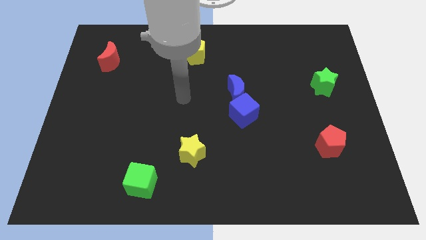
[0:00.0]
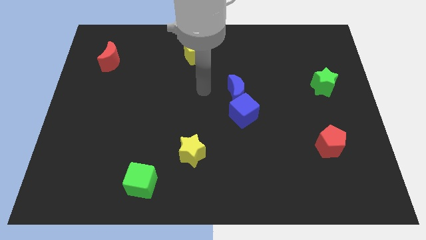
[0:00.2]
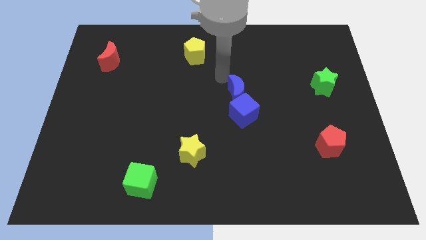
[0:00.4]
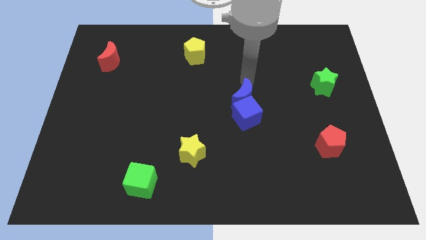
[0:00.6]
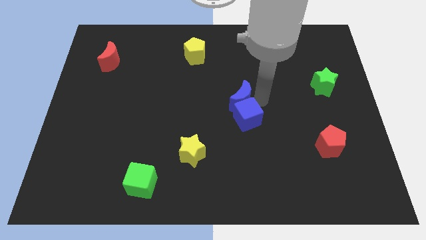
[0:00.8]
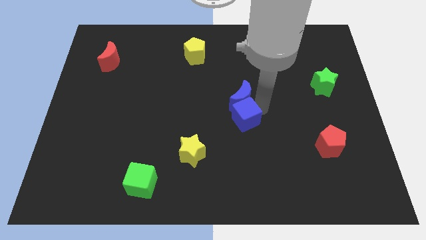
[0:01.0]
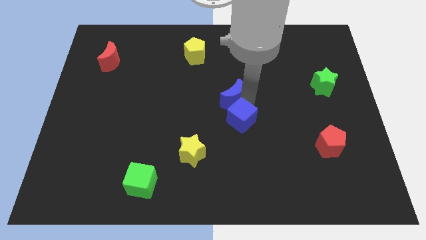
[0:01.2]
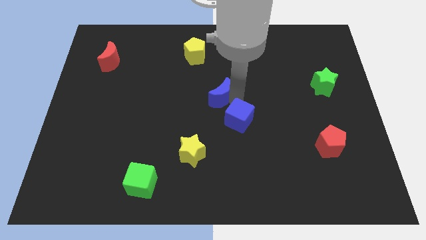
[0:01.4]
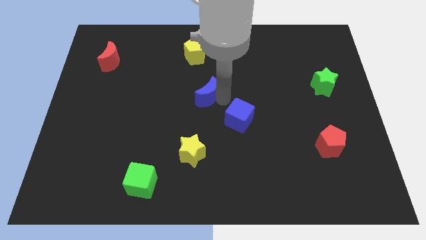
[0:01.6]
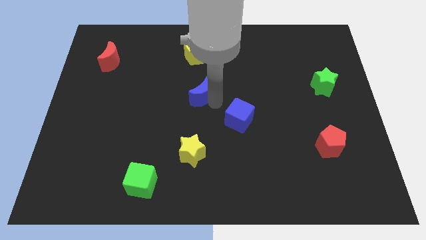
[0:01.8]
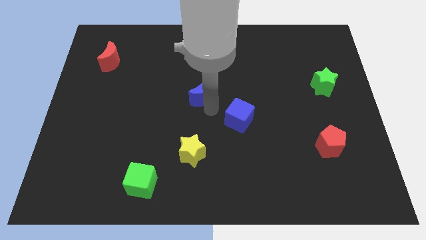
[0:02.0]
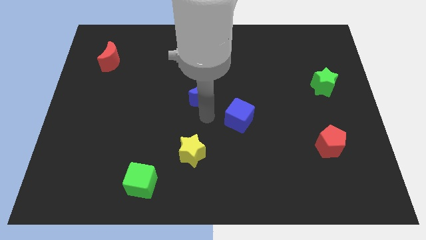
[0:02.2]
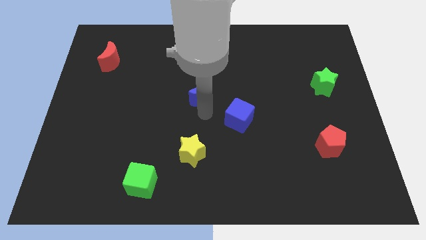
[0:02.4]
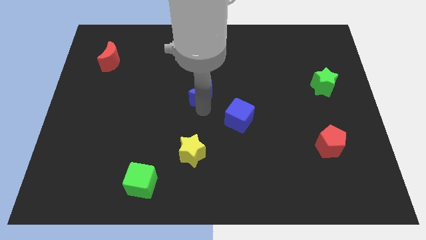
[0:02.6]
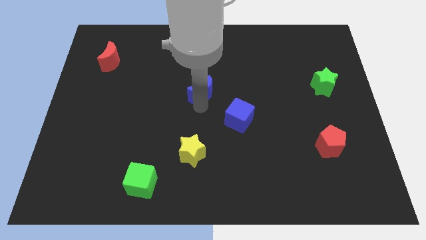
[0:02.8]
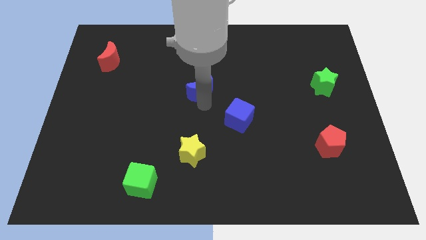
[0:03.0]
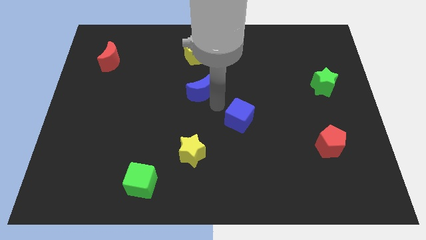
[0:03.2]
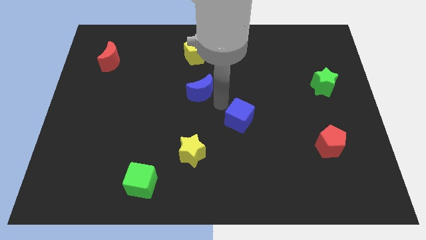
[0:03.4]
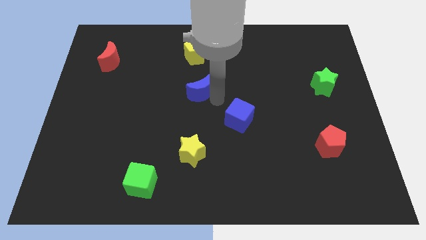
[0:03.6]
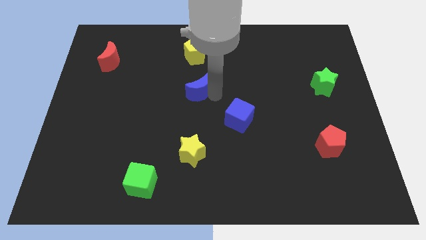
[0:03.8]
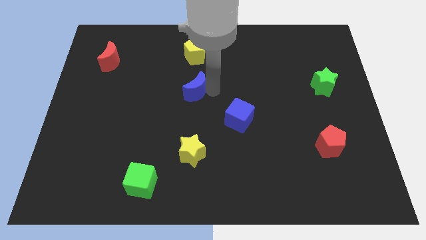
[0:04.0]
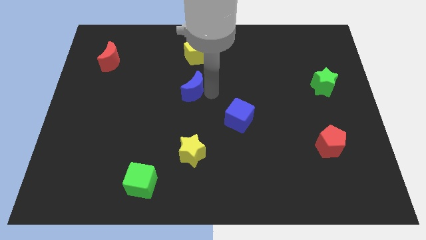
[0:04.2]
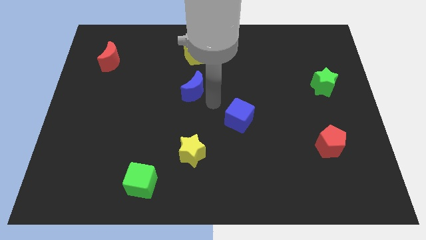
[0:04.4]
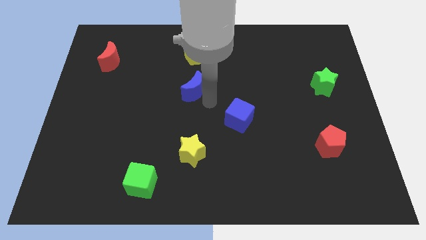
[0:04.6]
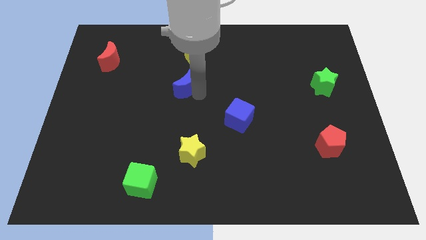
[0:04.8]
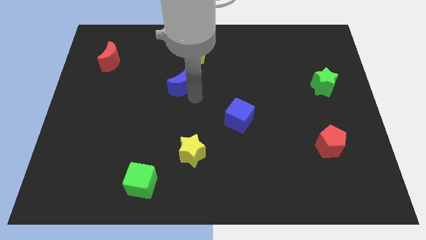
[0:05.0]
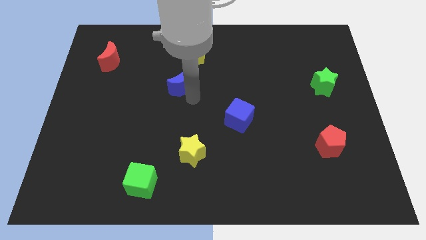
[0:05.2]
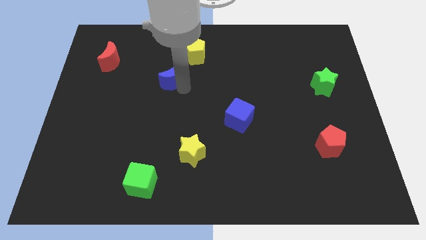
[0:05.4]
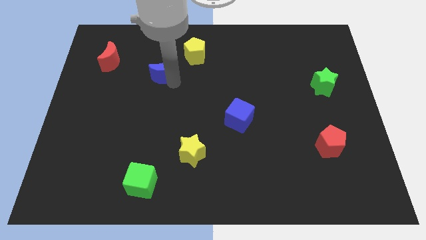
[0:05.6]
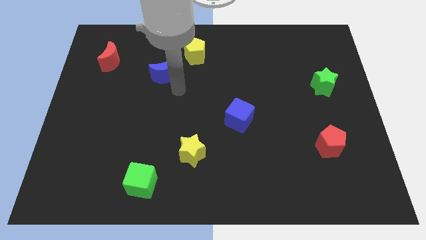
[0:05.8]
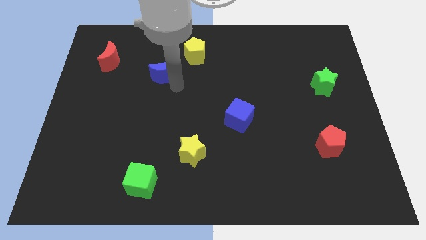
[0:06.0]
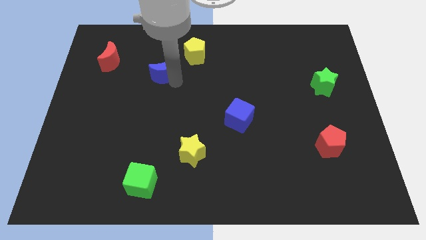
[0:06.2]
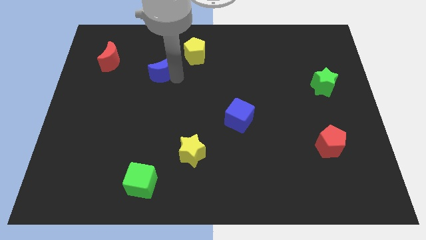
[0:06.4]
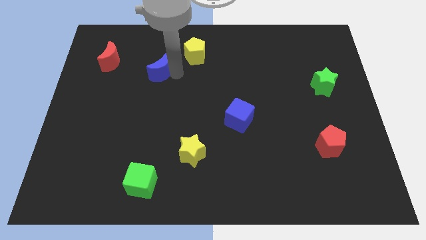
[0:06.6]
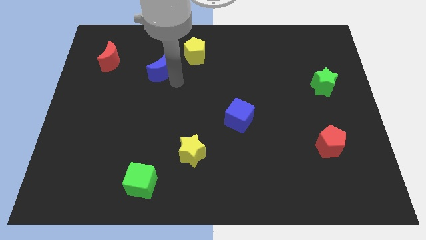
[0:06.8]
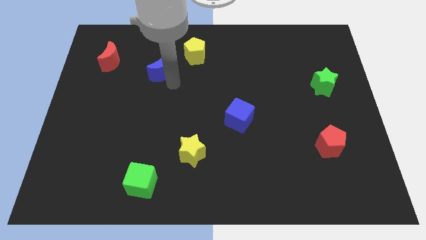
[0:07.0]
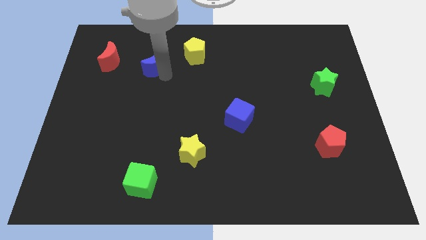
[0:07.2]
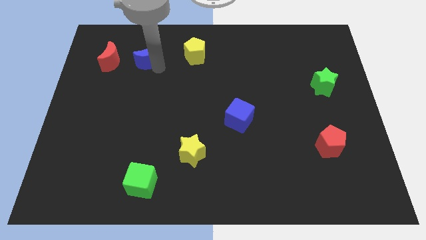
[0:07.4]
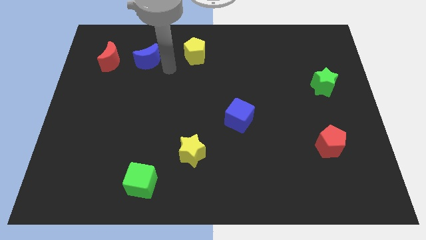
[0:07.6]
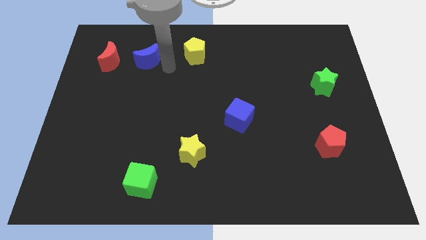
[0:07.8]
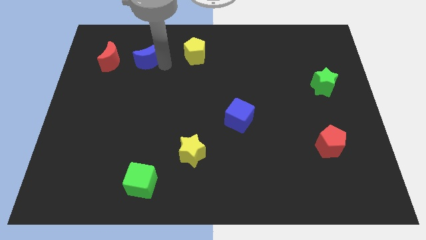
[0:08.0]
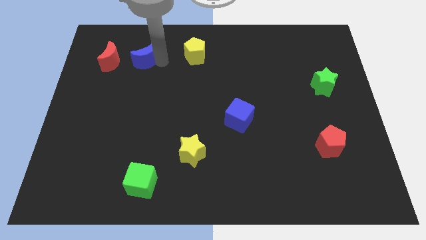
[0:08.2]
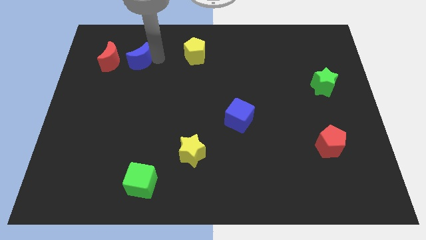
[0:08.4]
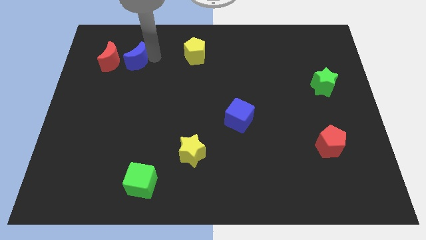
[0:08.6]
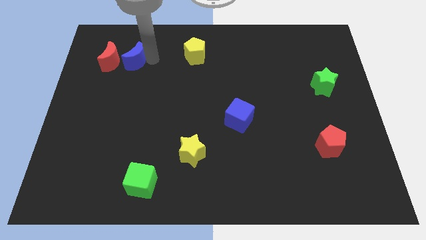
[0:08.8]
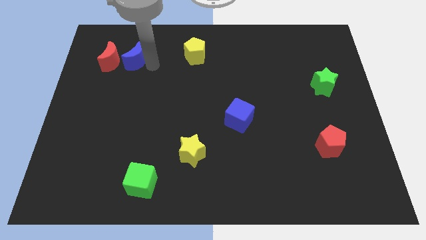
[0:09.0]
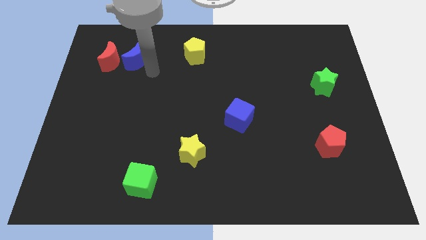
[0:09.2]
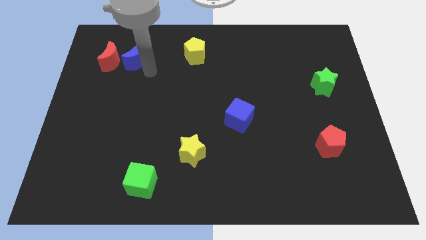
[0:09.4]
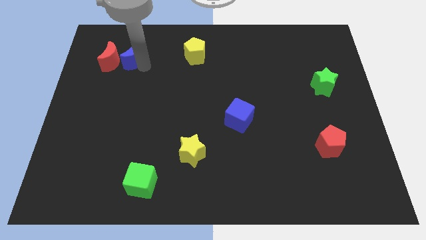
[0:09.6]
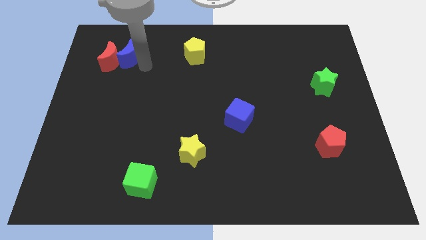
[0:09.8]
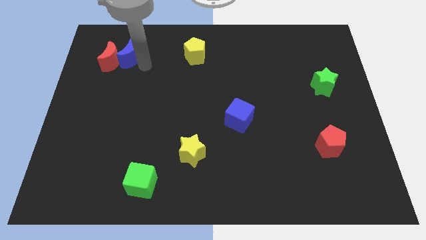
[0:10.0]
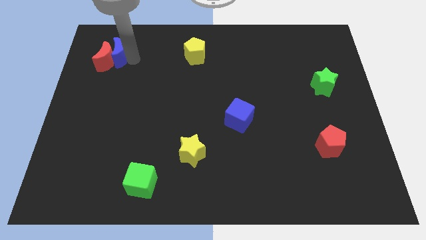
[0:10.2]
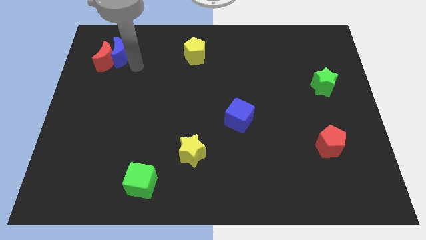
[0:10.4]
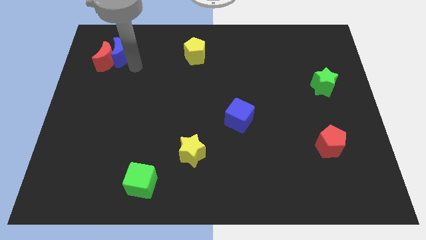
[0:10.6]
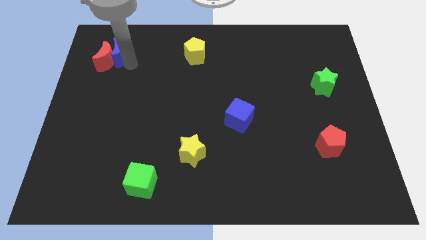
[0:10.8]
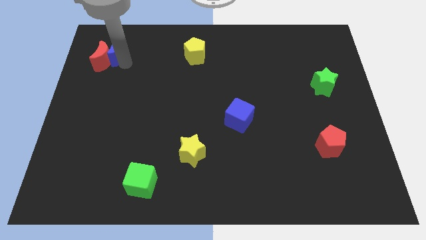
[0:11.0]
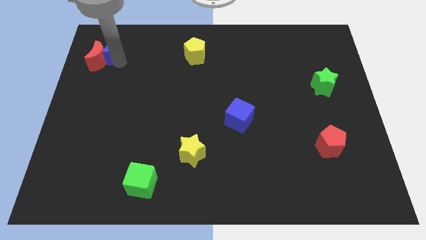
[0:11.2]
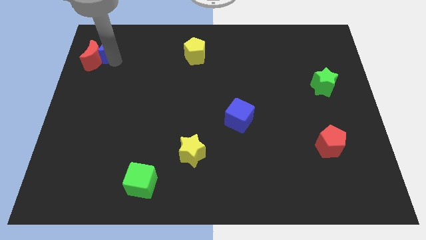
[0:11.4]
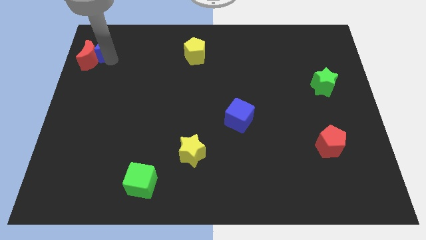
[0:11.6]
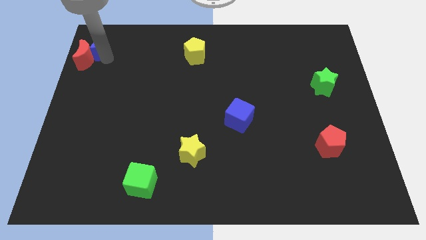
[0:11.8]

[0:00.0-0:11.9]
push the blue moon to the upper left corner
